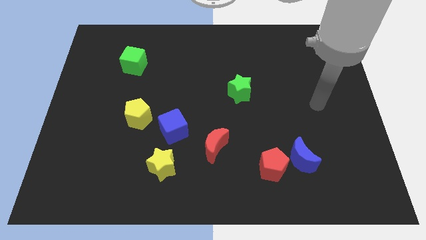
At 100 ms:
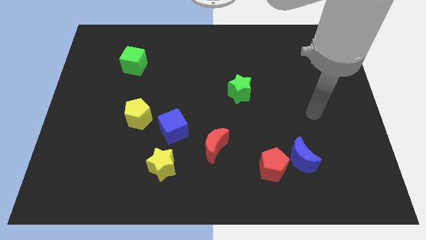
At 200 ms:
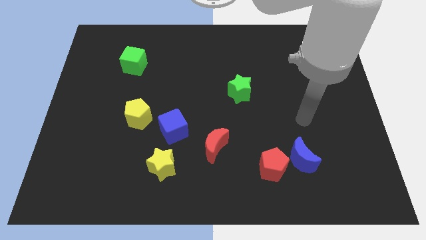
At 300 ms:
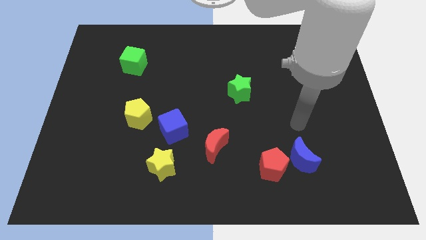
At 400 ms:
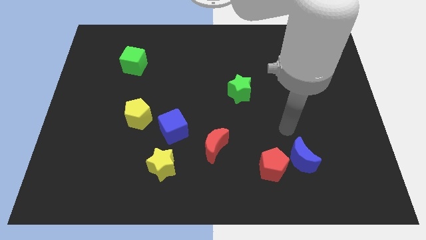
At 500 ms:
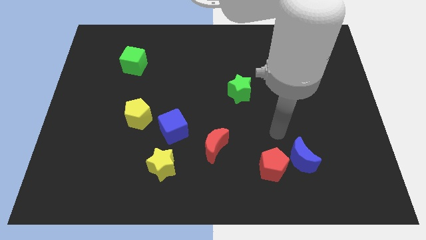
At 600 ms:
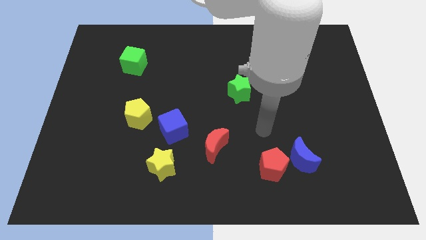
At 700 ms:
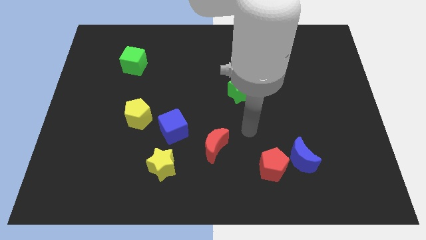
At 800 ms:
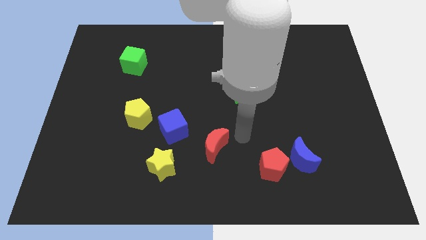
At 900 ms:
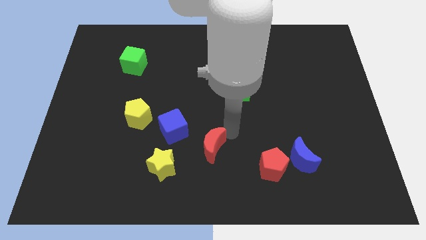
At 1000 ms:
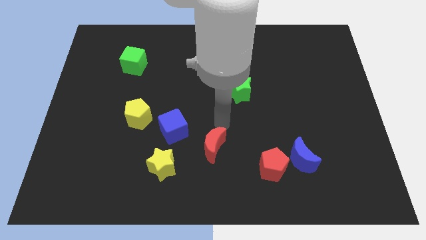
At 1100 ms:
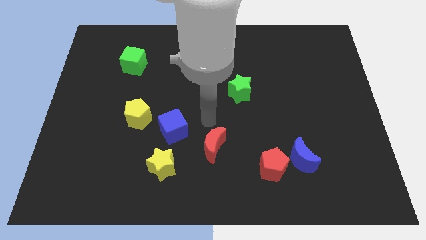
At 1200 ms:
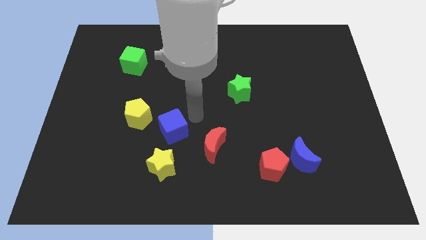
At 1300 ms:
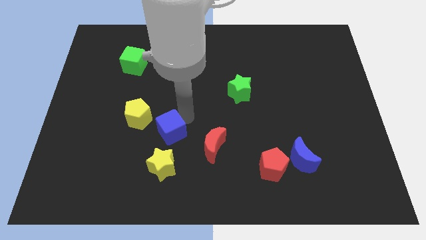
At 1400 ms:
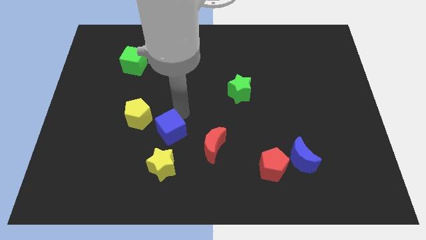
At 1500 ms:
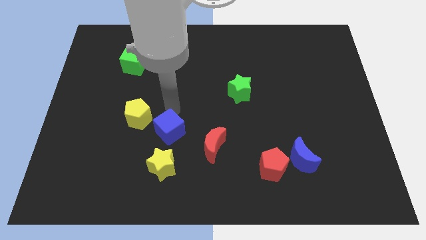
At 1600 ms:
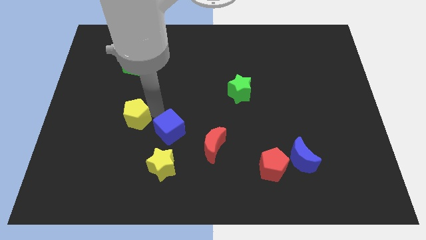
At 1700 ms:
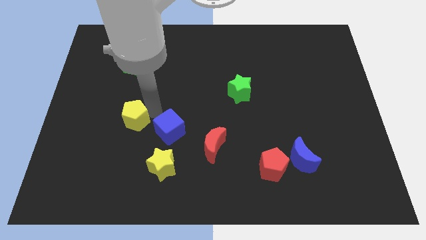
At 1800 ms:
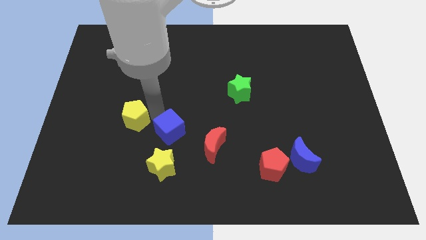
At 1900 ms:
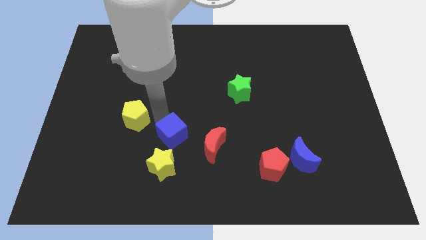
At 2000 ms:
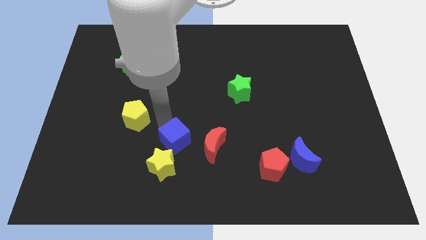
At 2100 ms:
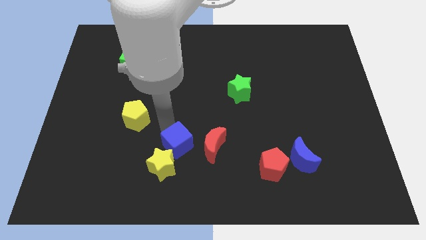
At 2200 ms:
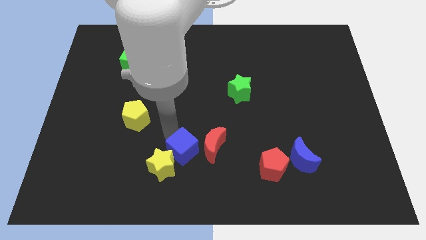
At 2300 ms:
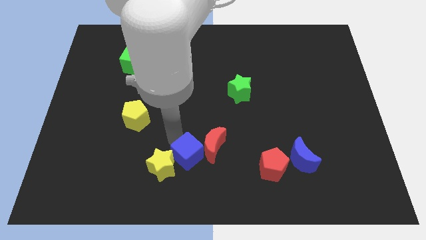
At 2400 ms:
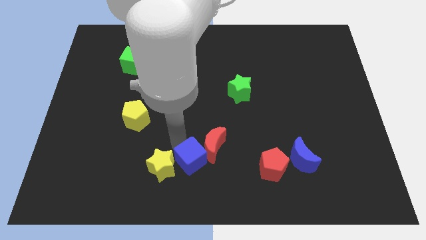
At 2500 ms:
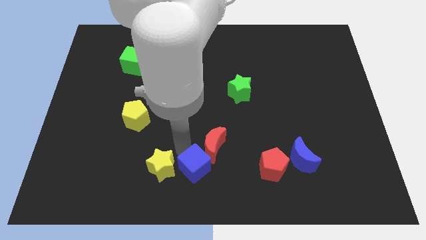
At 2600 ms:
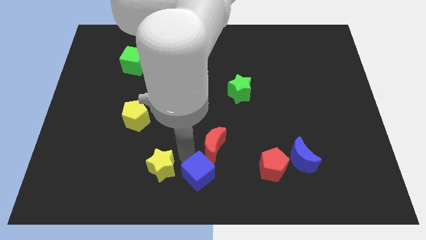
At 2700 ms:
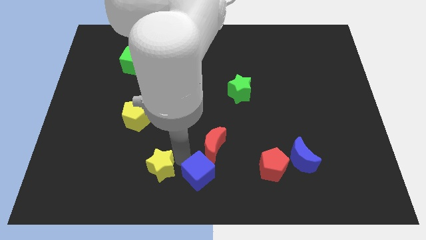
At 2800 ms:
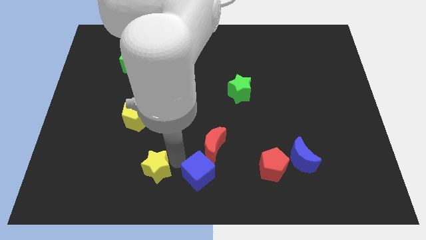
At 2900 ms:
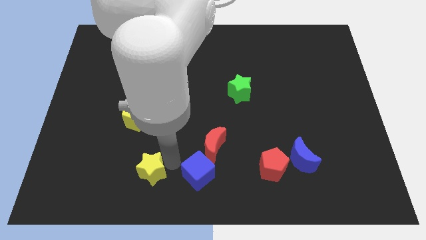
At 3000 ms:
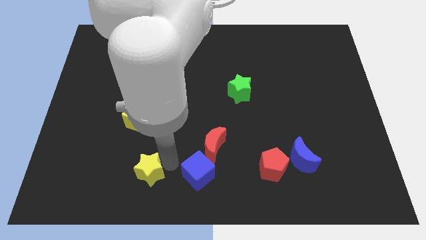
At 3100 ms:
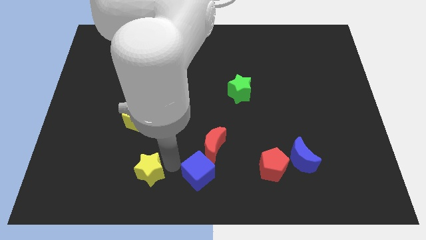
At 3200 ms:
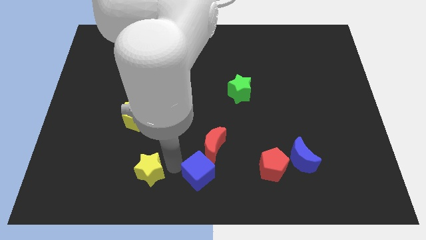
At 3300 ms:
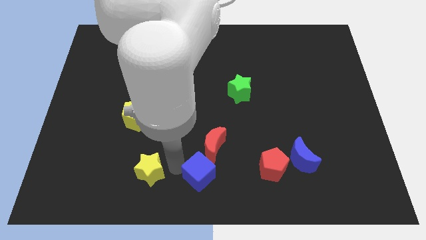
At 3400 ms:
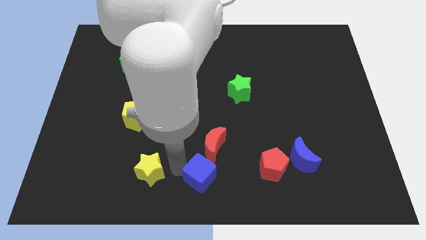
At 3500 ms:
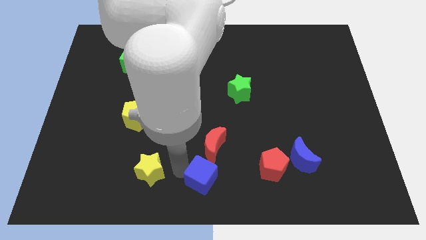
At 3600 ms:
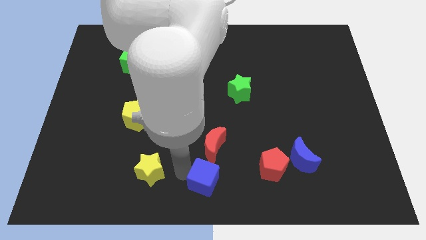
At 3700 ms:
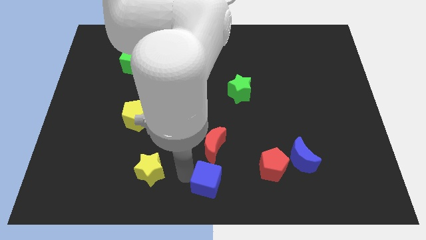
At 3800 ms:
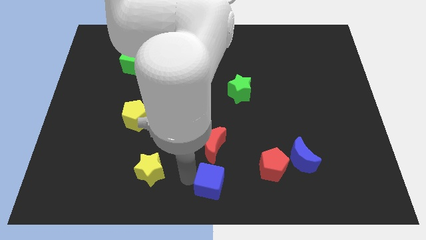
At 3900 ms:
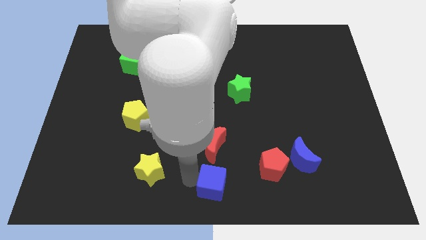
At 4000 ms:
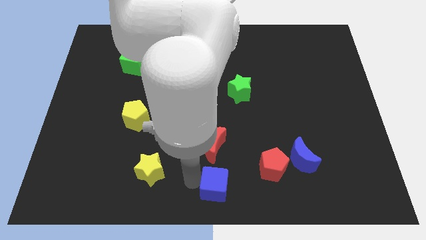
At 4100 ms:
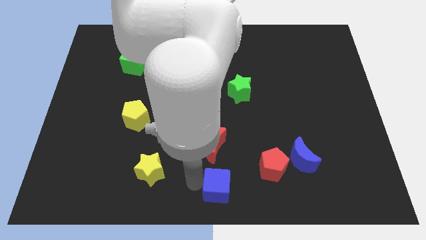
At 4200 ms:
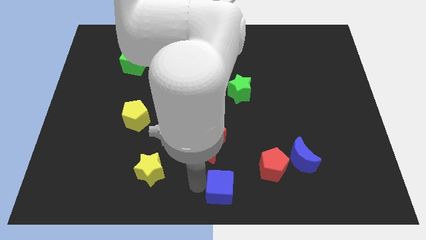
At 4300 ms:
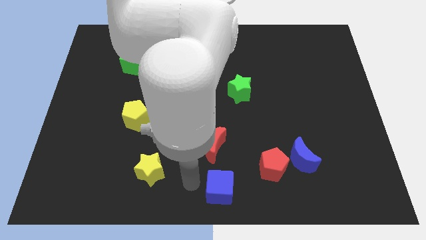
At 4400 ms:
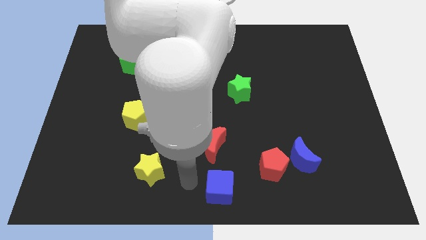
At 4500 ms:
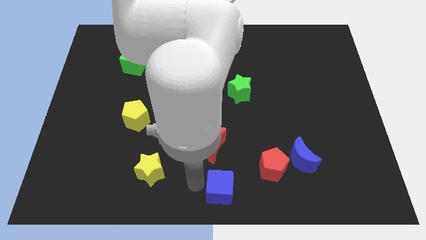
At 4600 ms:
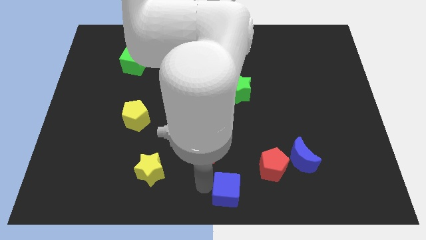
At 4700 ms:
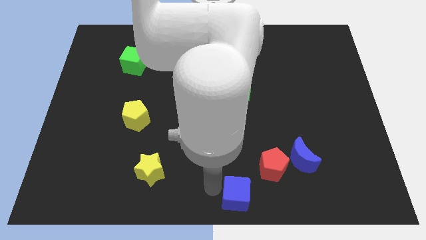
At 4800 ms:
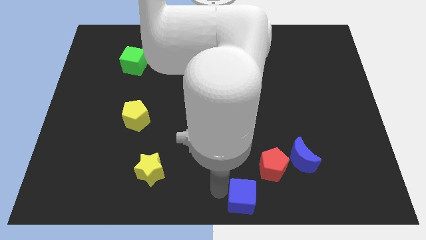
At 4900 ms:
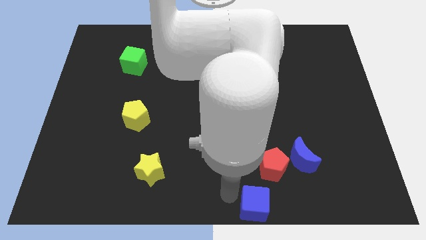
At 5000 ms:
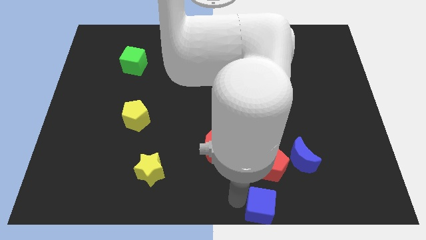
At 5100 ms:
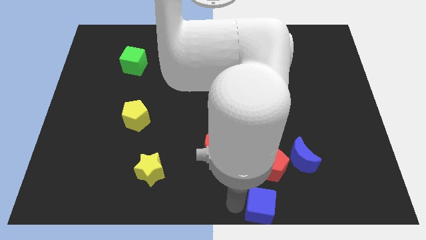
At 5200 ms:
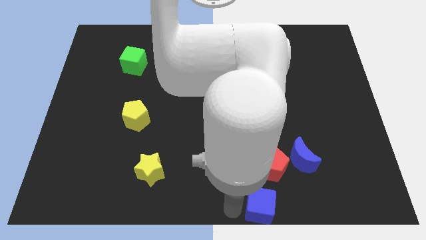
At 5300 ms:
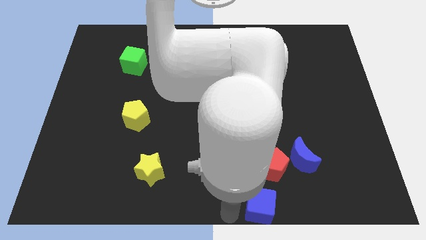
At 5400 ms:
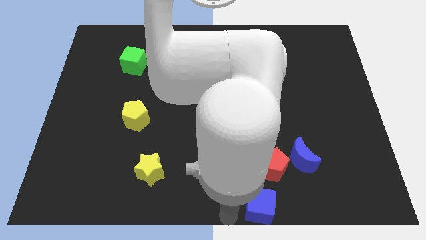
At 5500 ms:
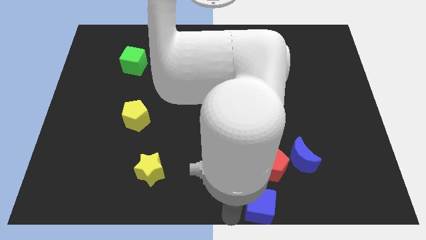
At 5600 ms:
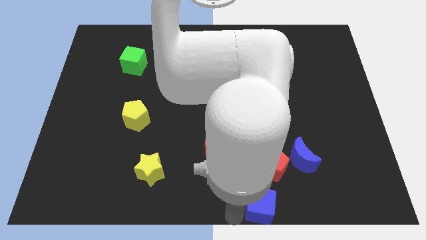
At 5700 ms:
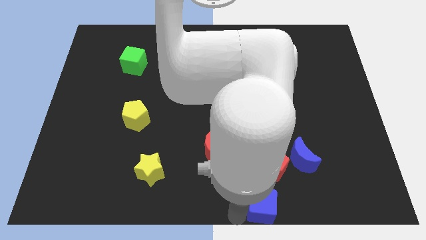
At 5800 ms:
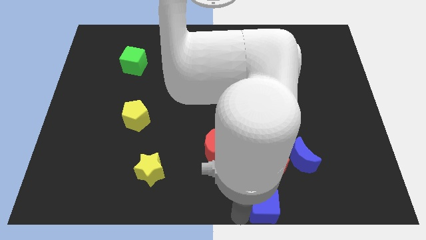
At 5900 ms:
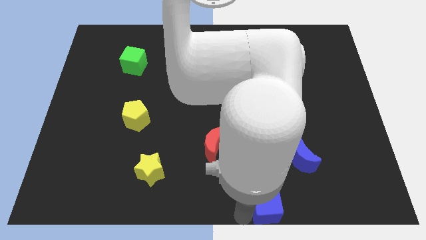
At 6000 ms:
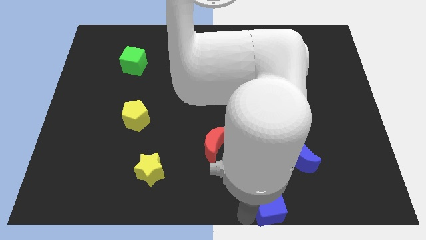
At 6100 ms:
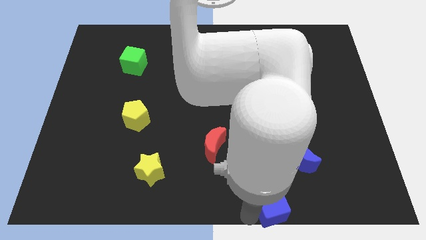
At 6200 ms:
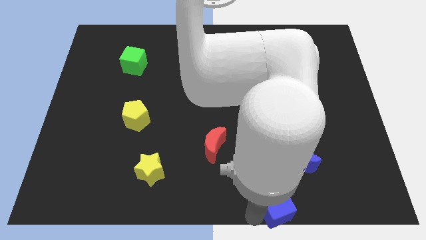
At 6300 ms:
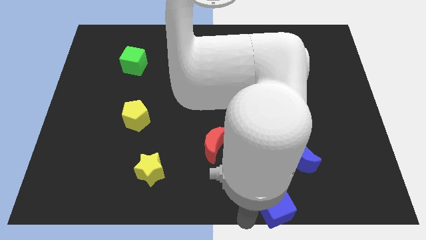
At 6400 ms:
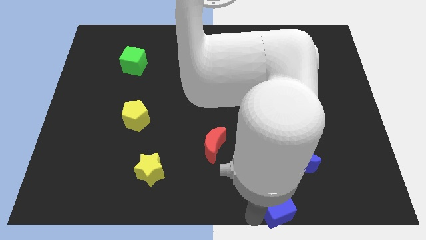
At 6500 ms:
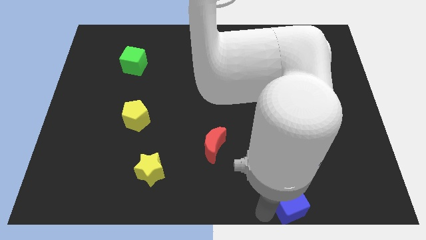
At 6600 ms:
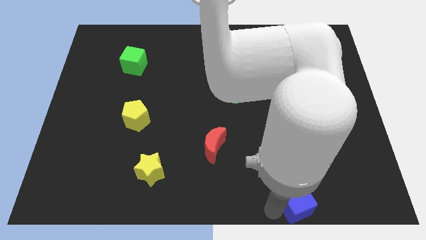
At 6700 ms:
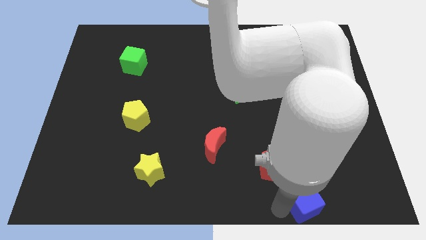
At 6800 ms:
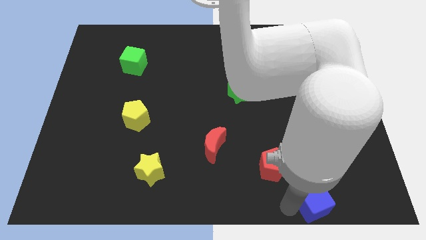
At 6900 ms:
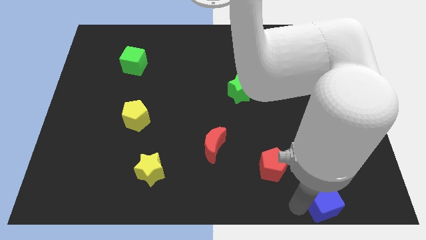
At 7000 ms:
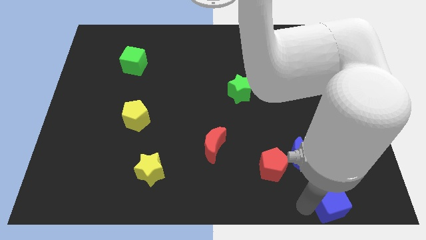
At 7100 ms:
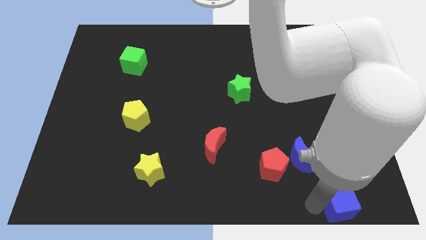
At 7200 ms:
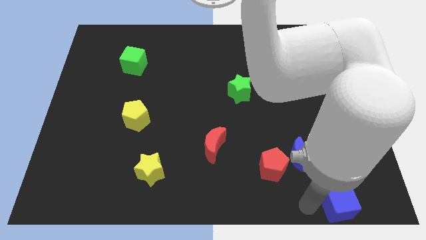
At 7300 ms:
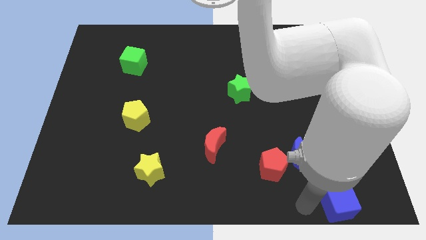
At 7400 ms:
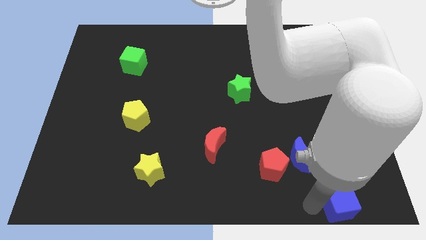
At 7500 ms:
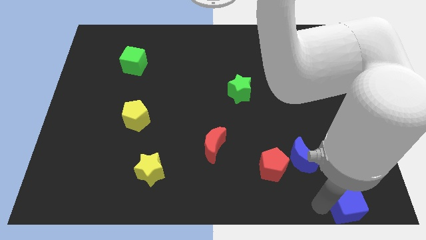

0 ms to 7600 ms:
slide the blue cube to the bottom right
